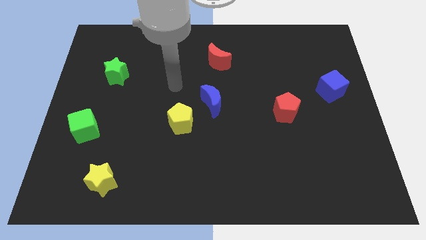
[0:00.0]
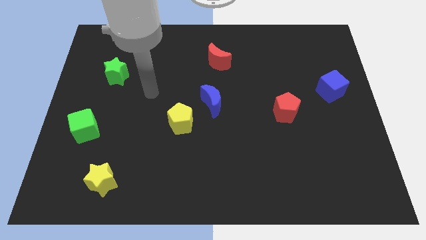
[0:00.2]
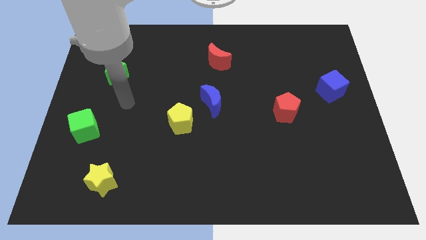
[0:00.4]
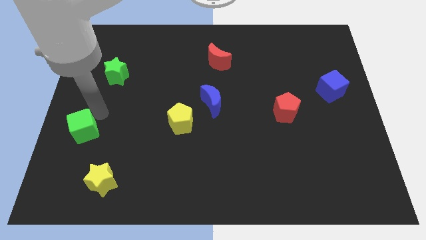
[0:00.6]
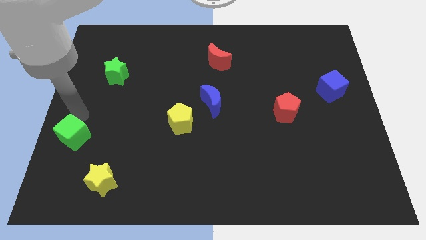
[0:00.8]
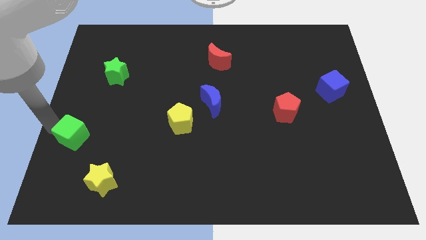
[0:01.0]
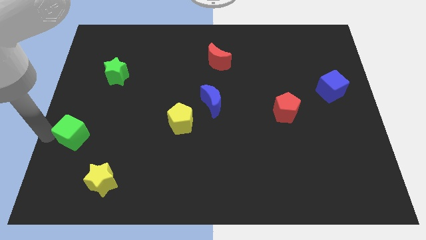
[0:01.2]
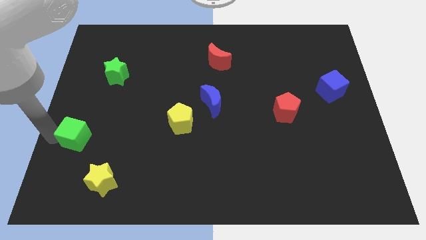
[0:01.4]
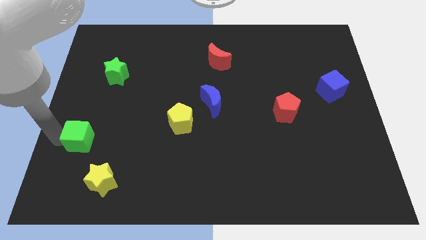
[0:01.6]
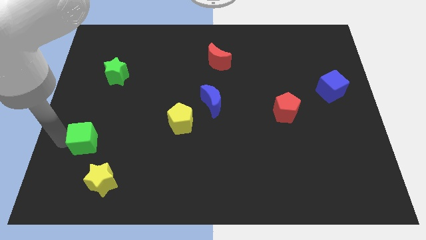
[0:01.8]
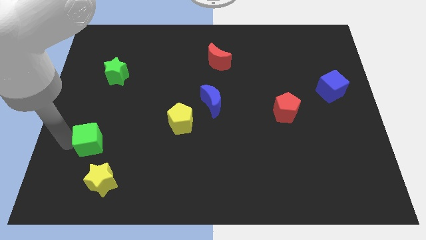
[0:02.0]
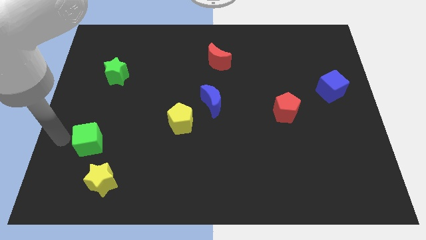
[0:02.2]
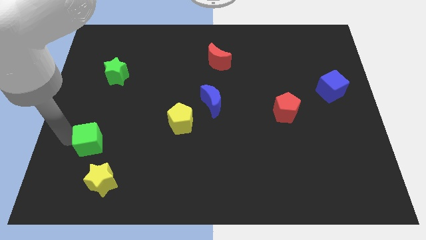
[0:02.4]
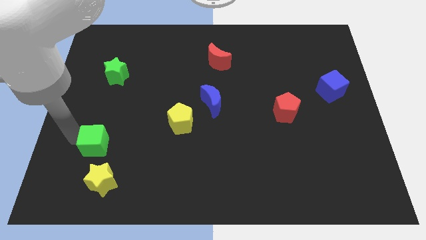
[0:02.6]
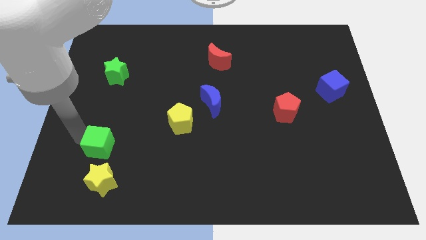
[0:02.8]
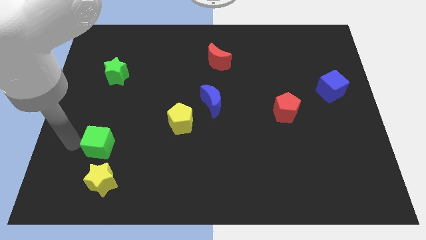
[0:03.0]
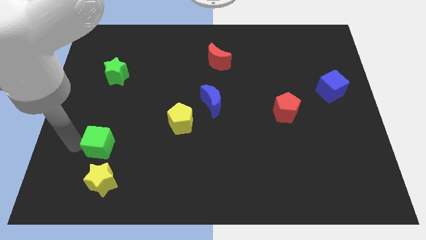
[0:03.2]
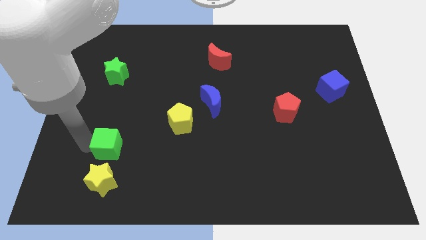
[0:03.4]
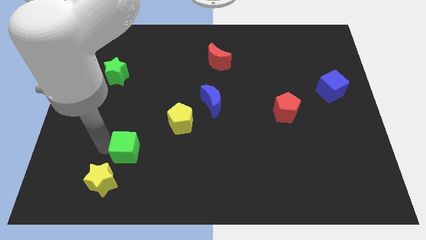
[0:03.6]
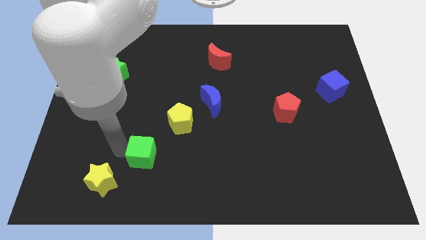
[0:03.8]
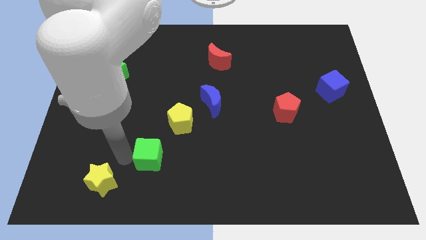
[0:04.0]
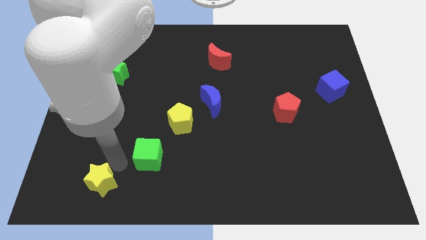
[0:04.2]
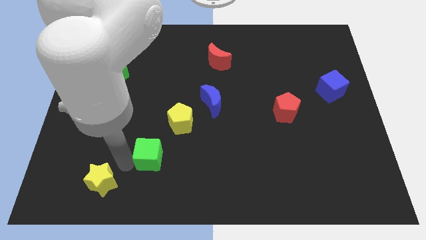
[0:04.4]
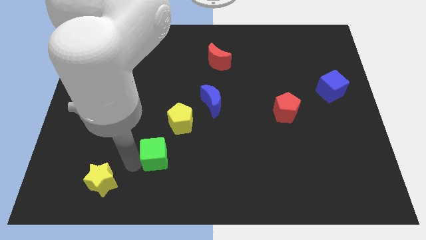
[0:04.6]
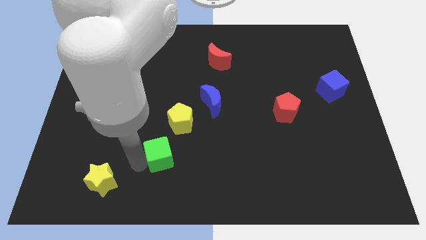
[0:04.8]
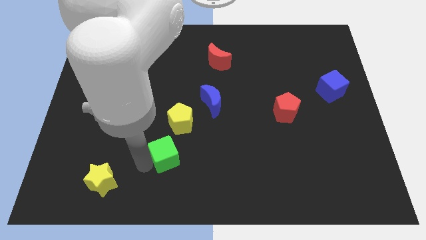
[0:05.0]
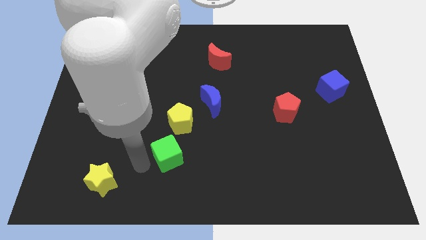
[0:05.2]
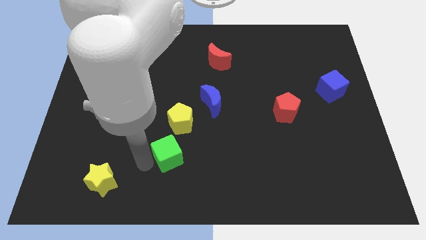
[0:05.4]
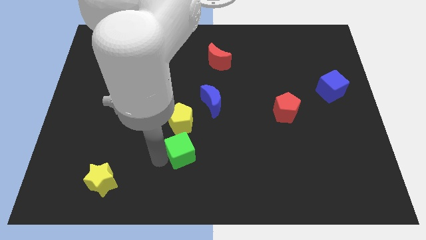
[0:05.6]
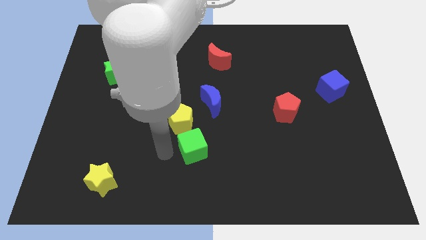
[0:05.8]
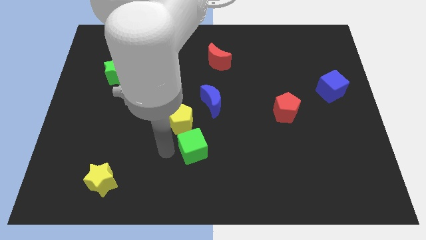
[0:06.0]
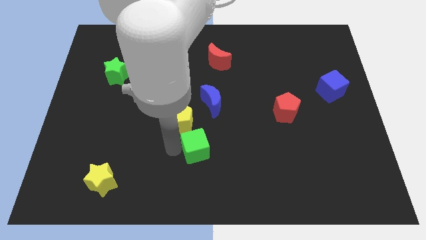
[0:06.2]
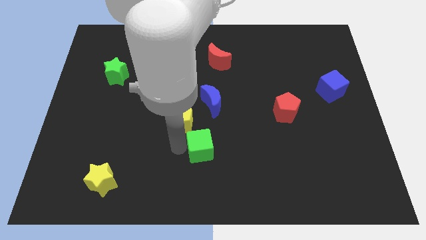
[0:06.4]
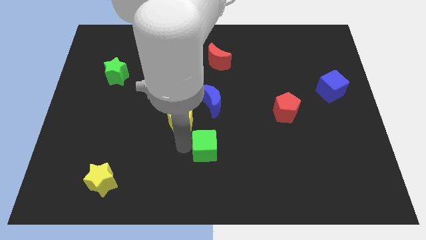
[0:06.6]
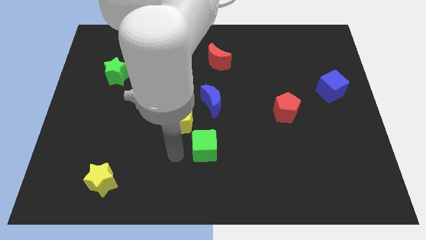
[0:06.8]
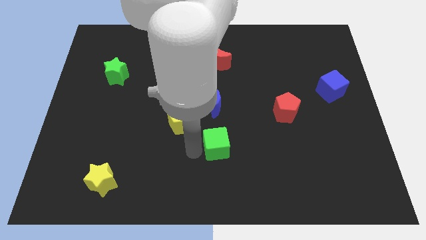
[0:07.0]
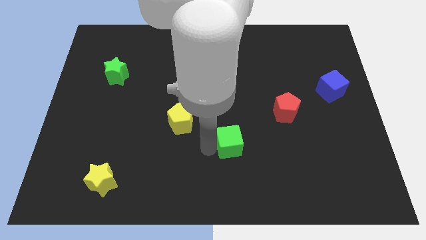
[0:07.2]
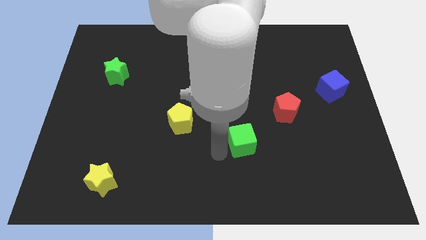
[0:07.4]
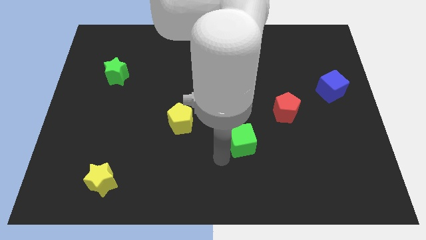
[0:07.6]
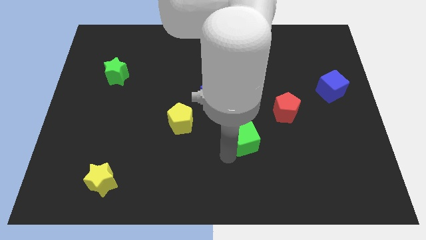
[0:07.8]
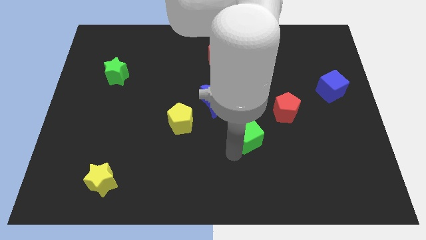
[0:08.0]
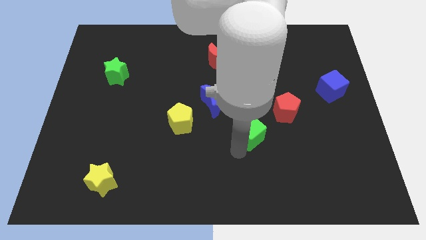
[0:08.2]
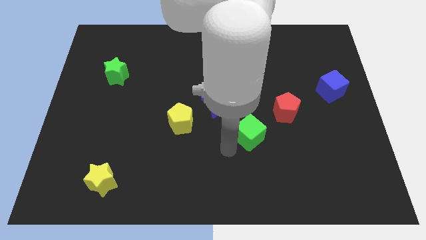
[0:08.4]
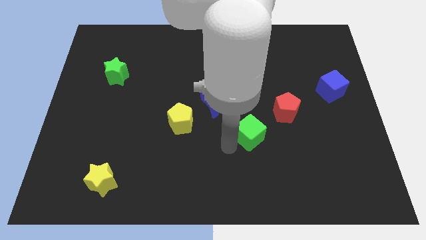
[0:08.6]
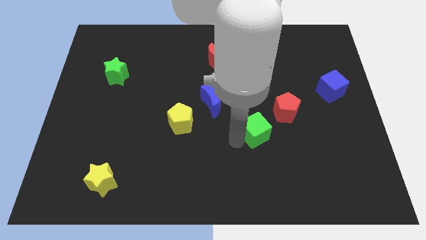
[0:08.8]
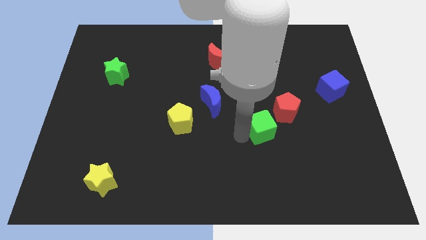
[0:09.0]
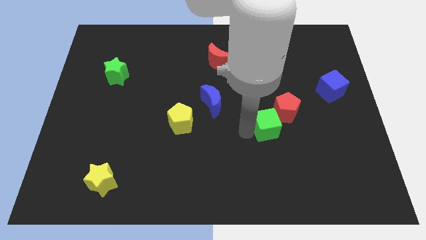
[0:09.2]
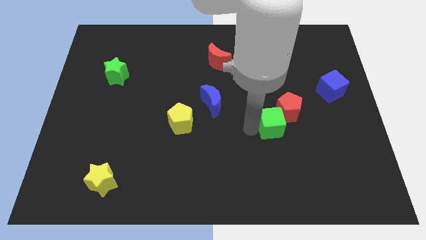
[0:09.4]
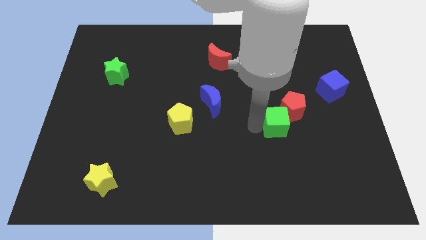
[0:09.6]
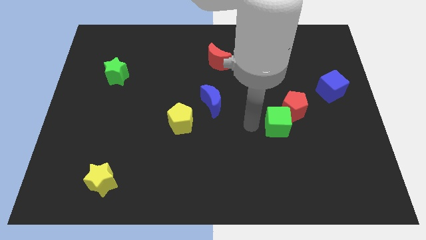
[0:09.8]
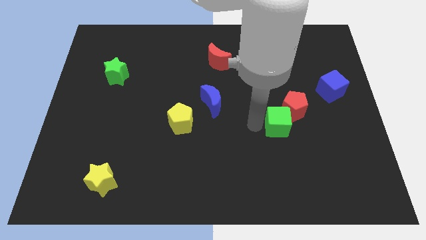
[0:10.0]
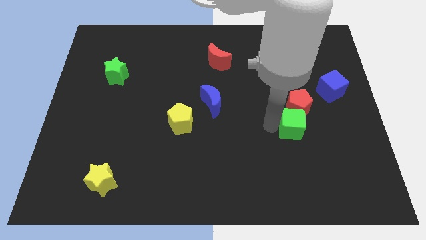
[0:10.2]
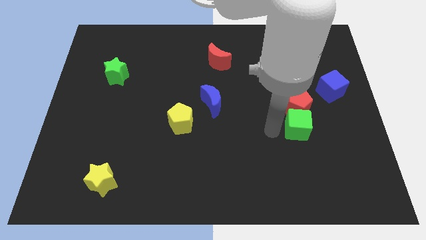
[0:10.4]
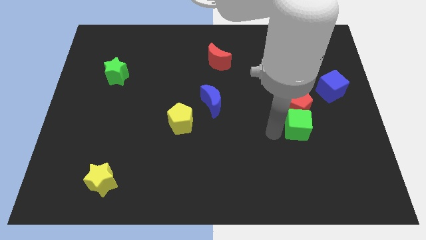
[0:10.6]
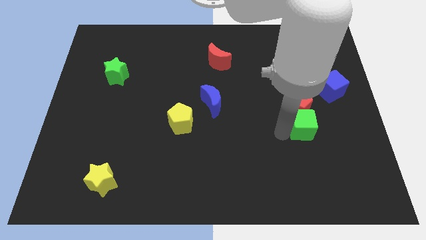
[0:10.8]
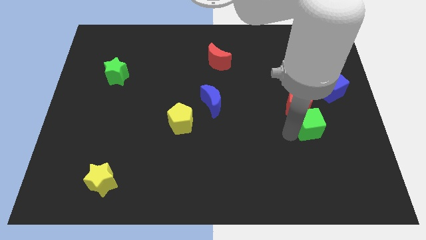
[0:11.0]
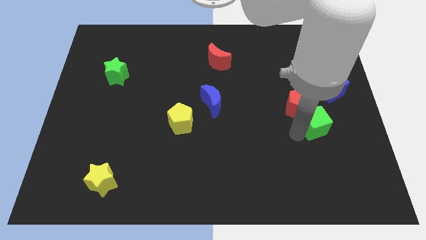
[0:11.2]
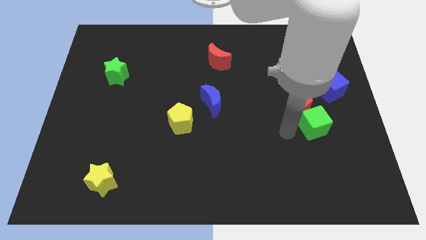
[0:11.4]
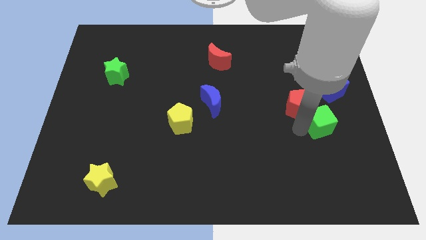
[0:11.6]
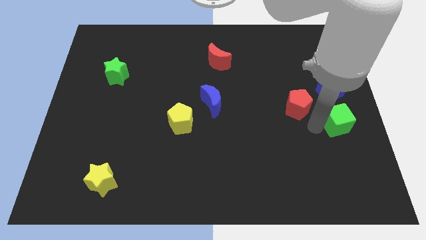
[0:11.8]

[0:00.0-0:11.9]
put the green cube to the right side
